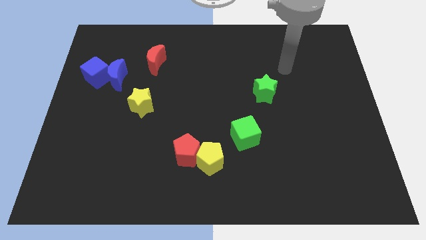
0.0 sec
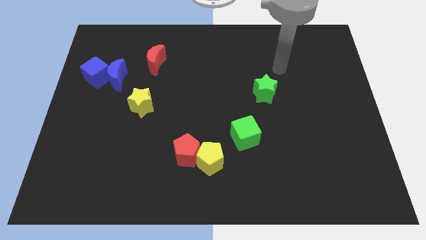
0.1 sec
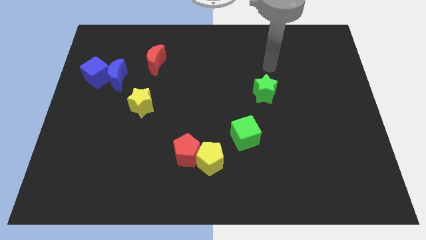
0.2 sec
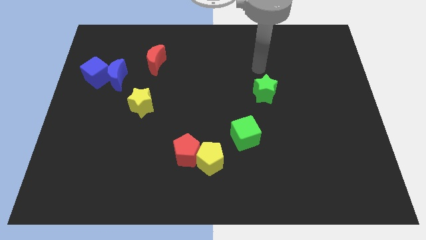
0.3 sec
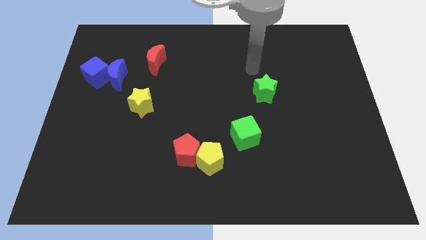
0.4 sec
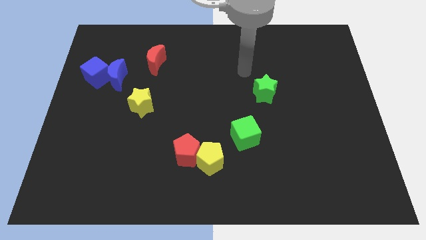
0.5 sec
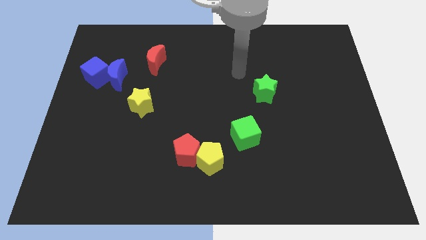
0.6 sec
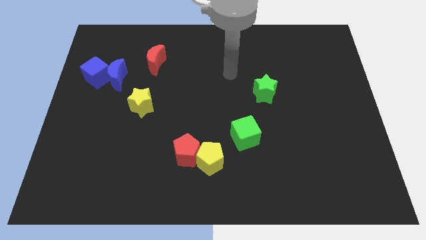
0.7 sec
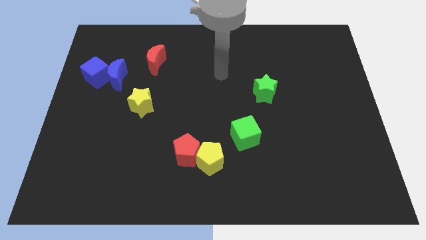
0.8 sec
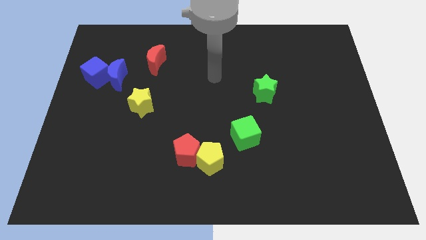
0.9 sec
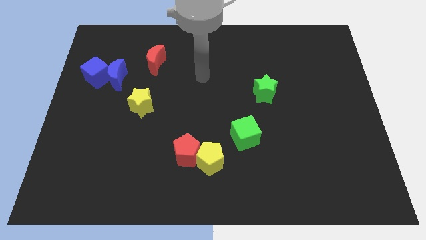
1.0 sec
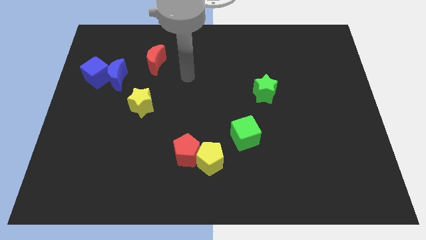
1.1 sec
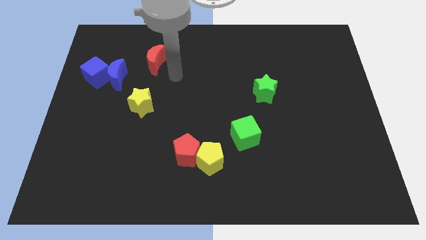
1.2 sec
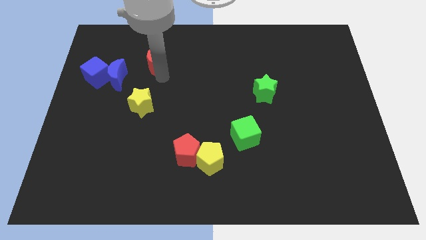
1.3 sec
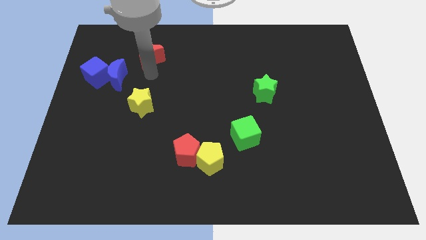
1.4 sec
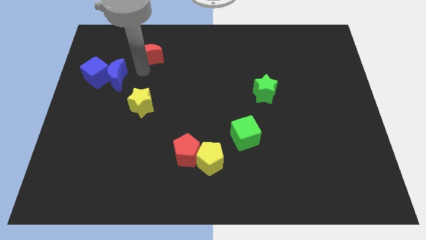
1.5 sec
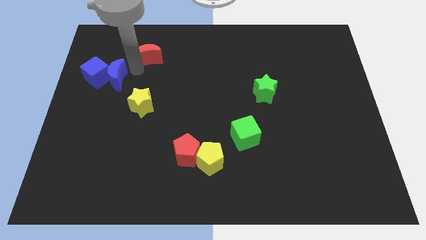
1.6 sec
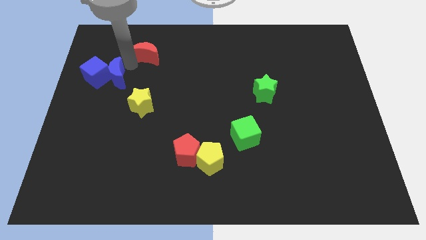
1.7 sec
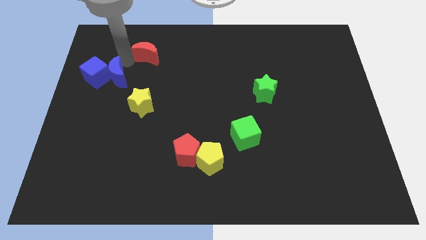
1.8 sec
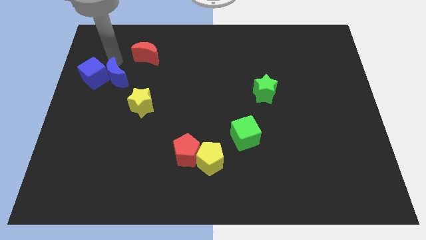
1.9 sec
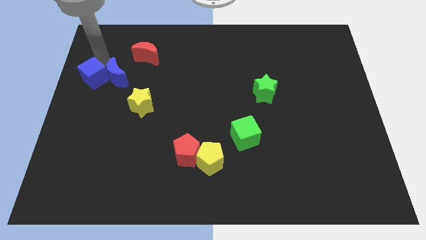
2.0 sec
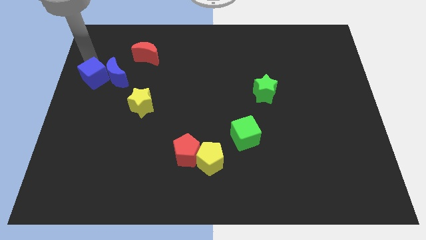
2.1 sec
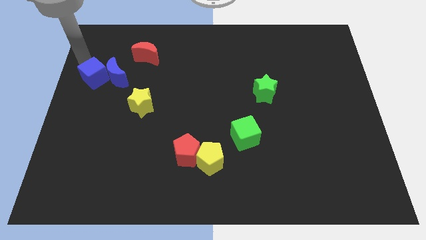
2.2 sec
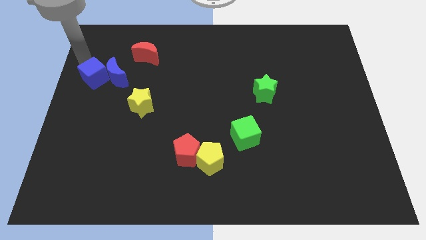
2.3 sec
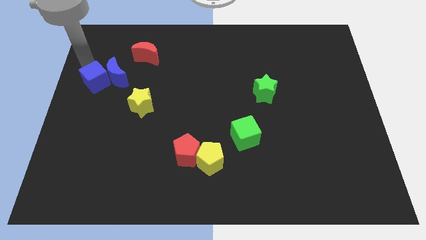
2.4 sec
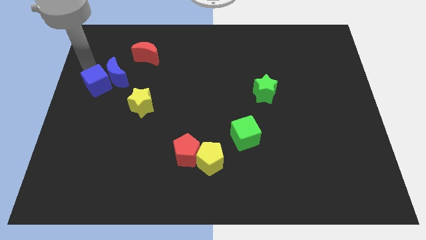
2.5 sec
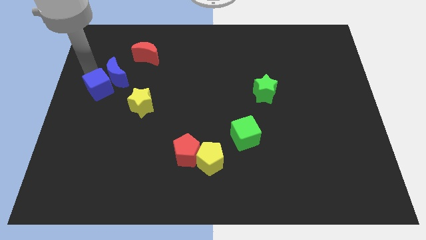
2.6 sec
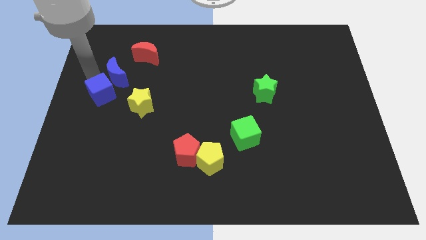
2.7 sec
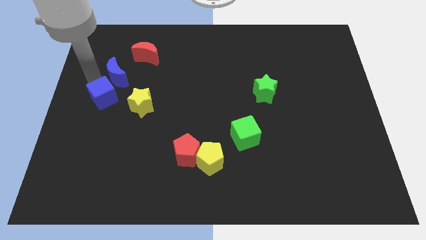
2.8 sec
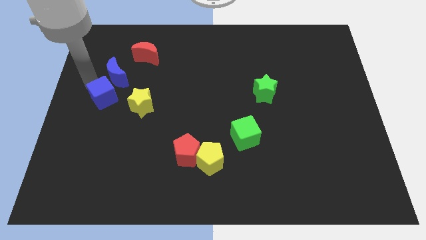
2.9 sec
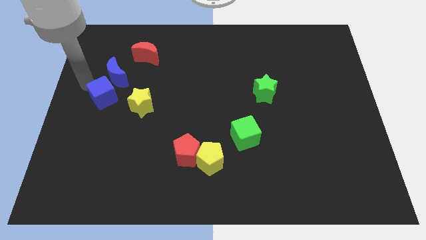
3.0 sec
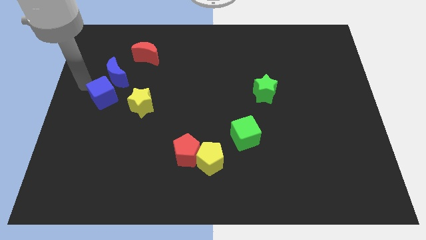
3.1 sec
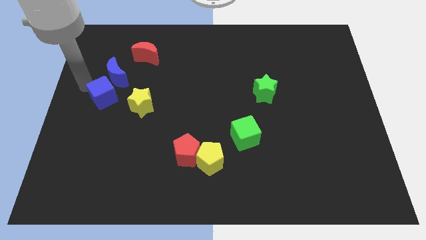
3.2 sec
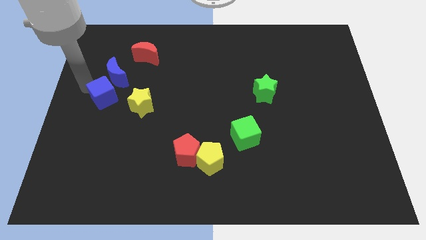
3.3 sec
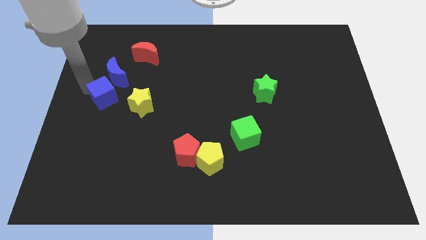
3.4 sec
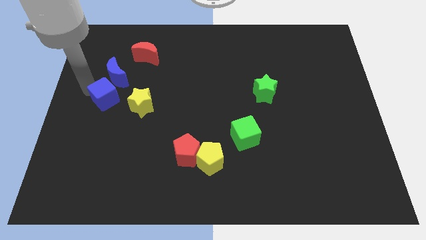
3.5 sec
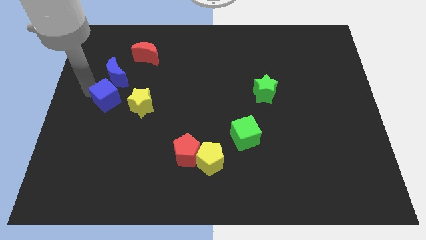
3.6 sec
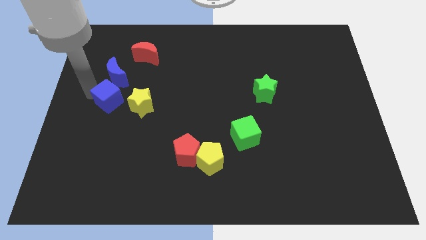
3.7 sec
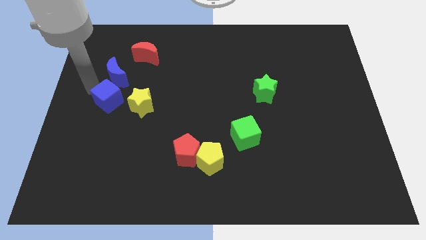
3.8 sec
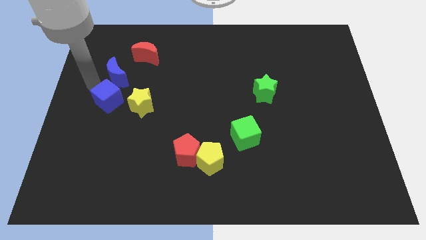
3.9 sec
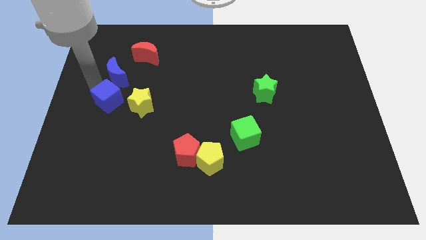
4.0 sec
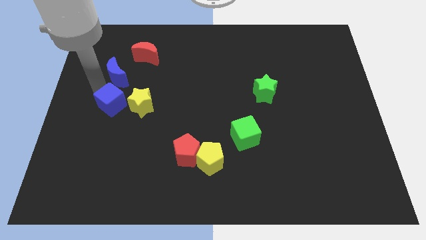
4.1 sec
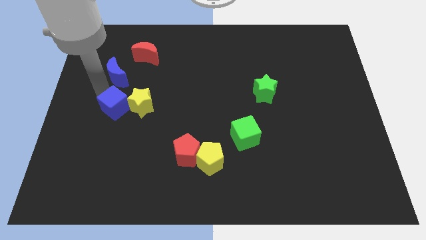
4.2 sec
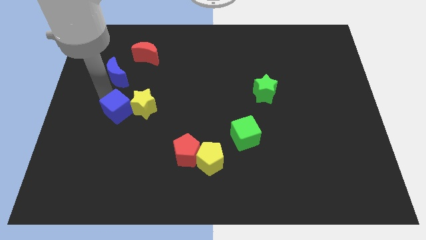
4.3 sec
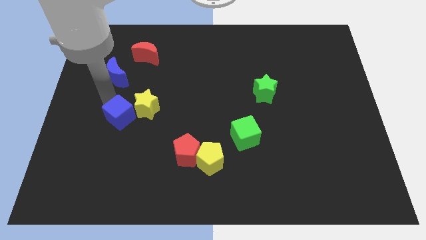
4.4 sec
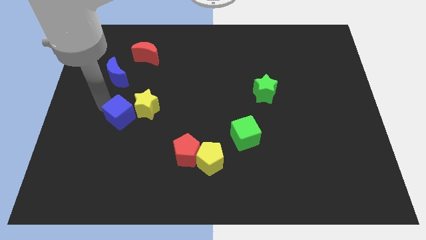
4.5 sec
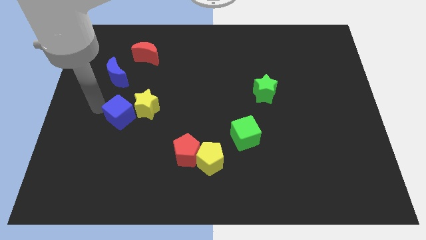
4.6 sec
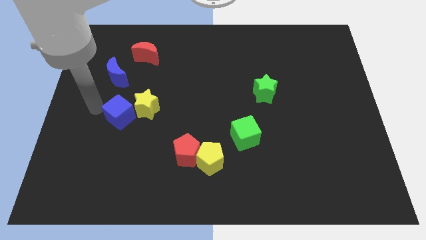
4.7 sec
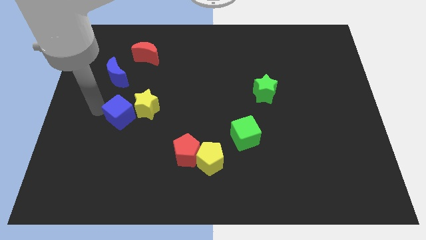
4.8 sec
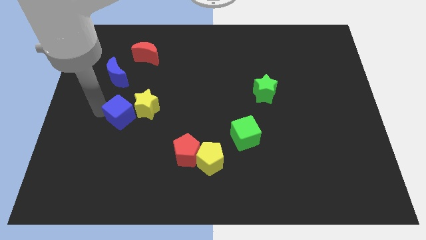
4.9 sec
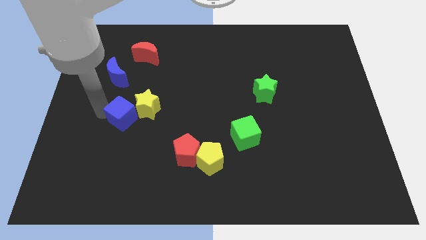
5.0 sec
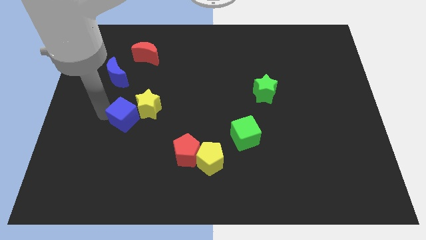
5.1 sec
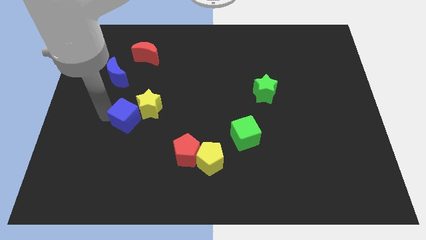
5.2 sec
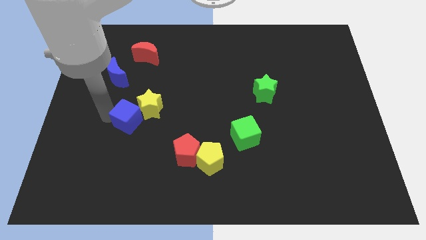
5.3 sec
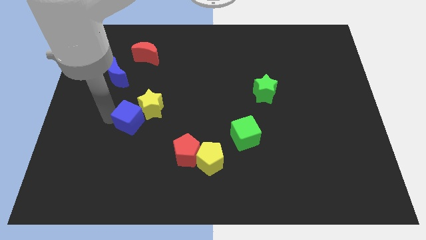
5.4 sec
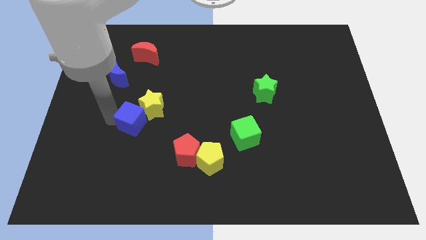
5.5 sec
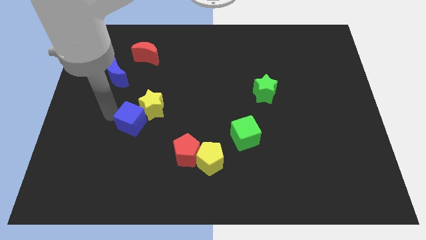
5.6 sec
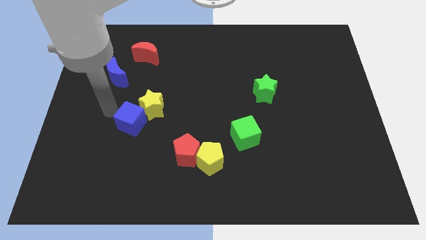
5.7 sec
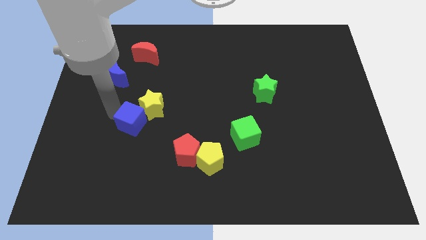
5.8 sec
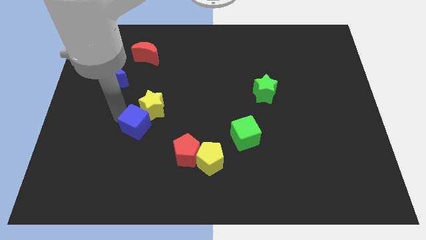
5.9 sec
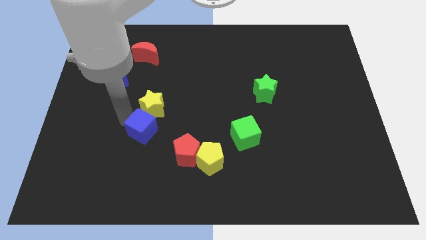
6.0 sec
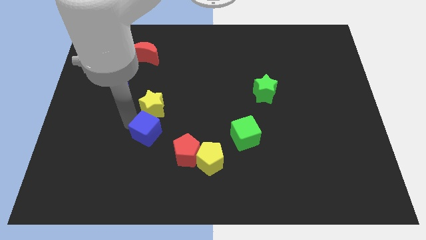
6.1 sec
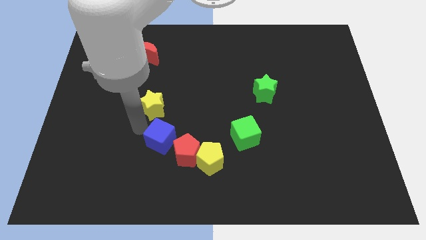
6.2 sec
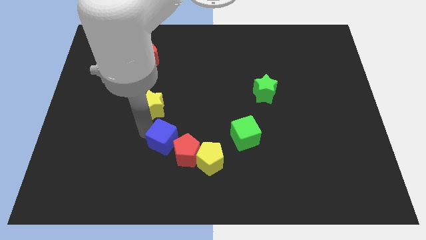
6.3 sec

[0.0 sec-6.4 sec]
put the blue cube to the red pentagon

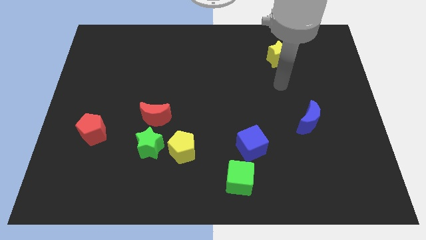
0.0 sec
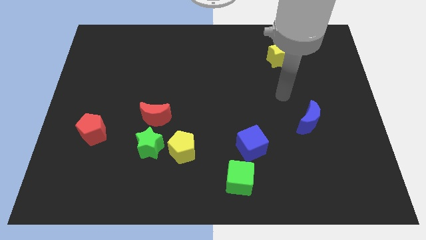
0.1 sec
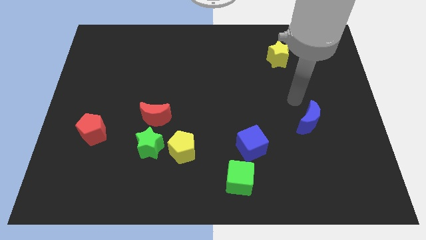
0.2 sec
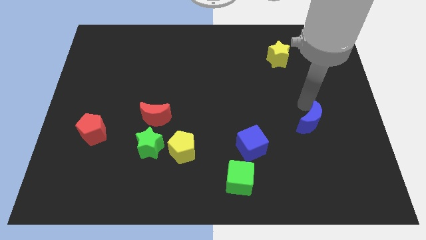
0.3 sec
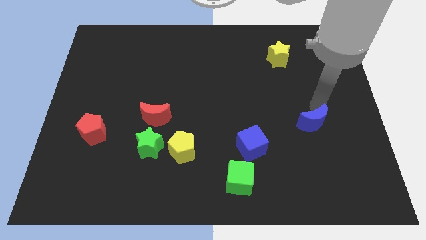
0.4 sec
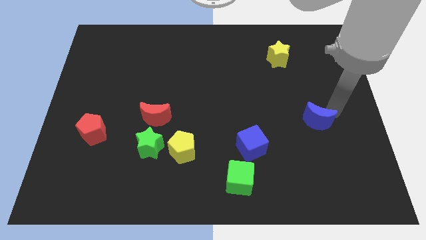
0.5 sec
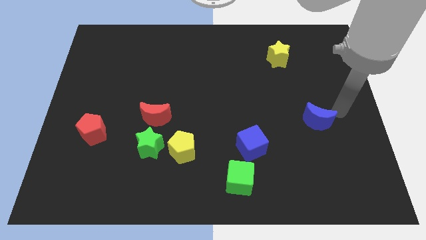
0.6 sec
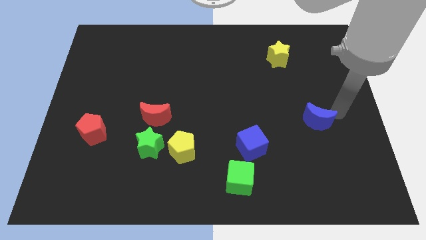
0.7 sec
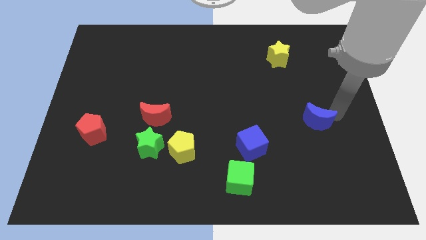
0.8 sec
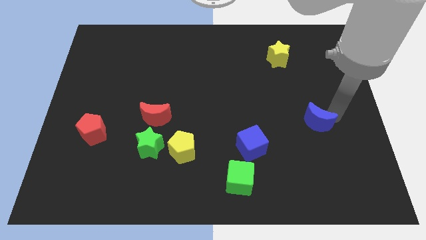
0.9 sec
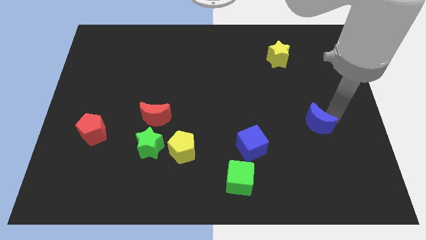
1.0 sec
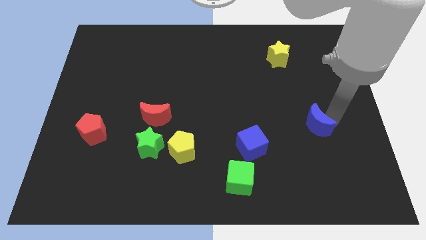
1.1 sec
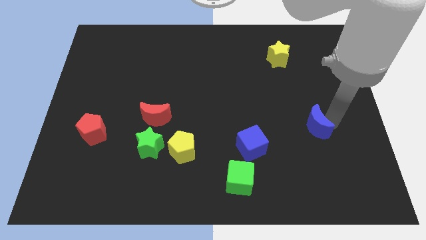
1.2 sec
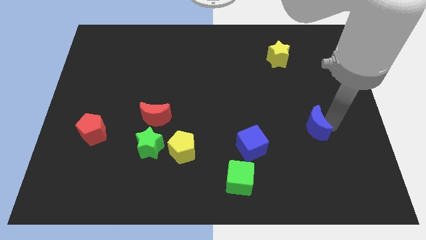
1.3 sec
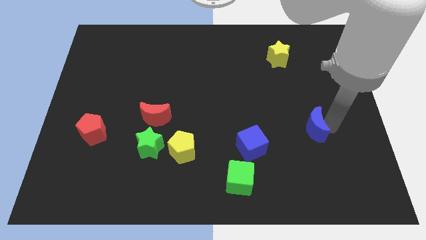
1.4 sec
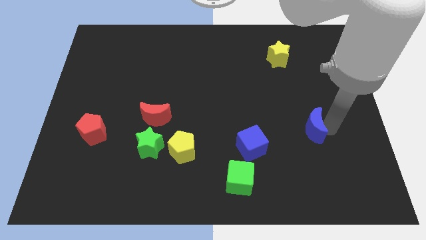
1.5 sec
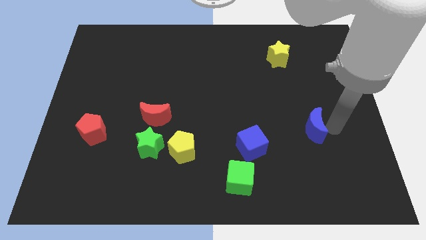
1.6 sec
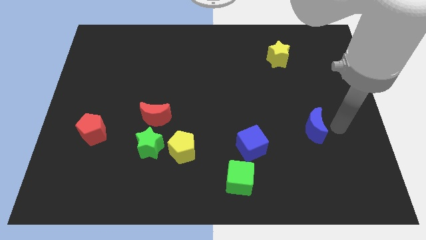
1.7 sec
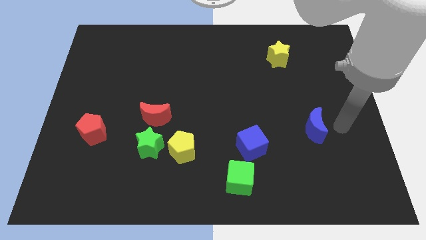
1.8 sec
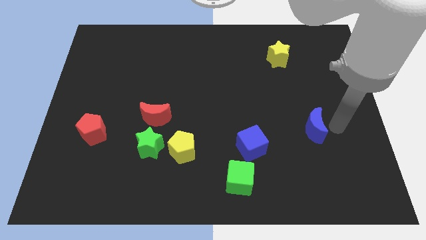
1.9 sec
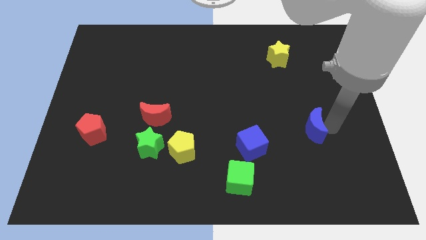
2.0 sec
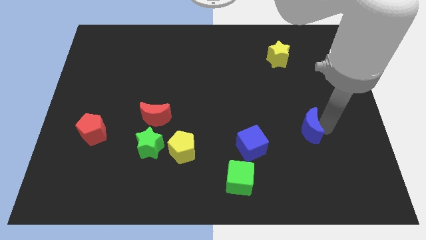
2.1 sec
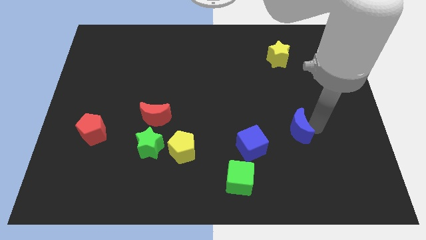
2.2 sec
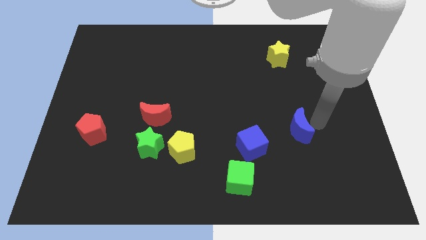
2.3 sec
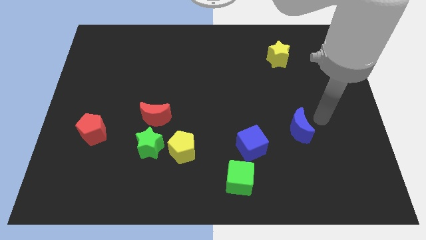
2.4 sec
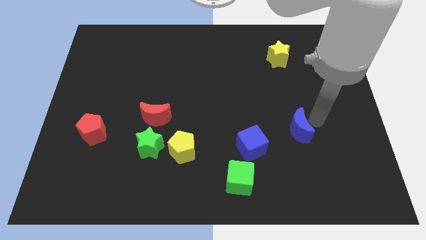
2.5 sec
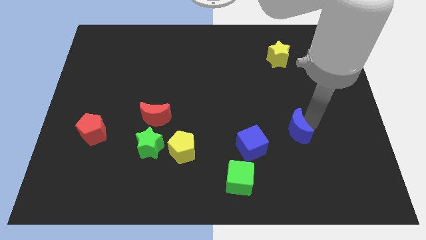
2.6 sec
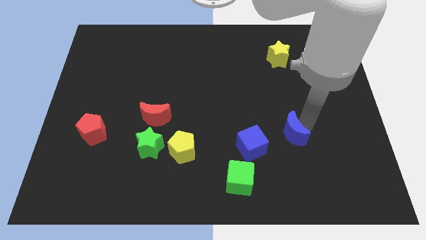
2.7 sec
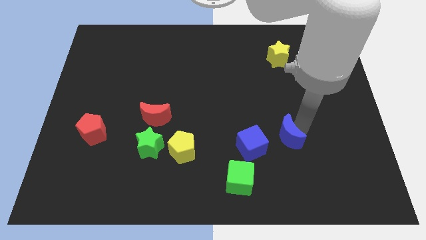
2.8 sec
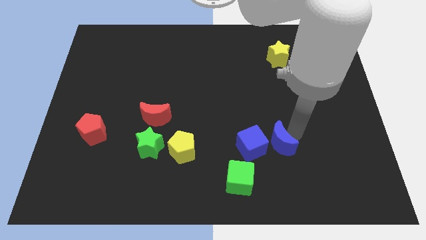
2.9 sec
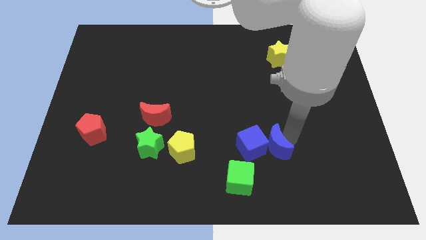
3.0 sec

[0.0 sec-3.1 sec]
slide the blue moon next to the blue cube
